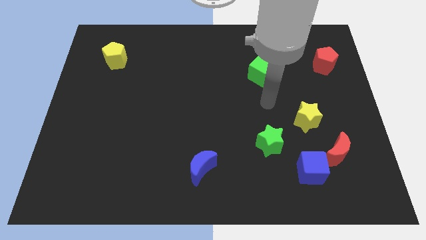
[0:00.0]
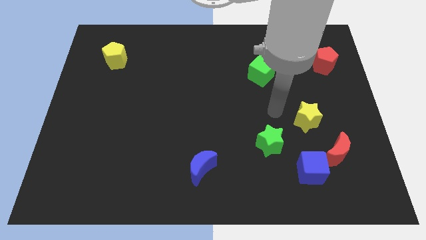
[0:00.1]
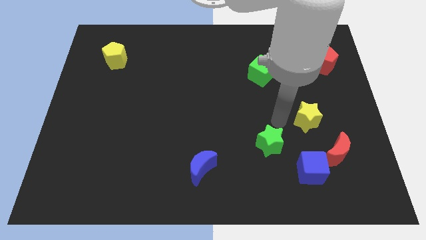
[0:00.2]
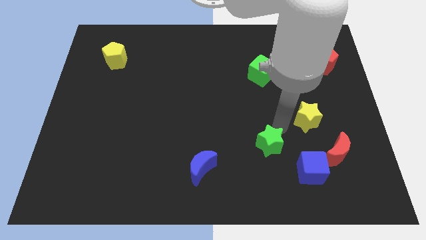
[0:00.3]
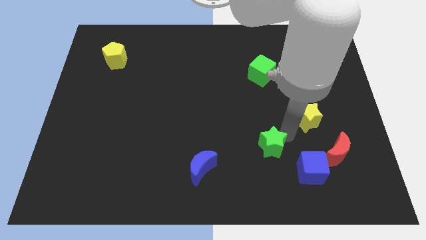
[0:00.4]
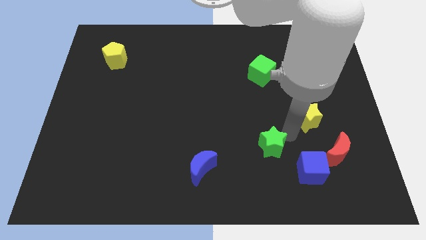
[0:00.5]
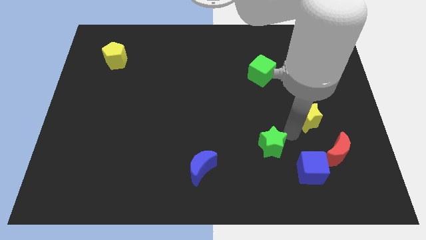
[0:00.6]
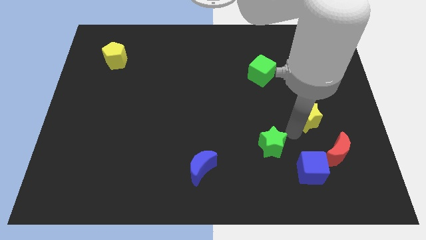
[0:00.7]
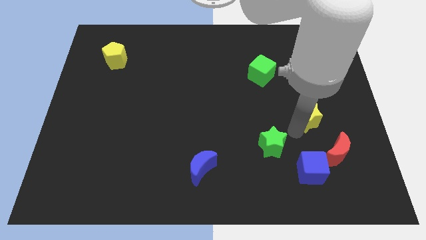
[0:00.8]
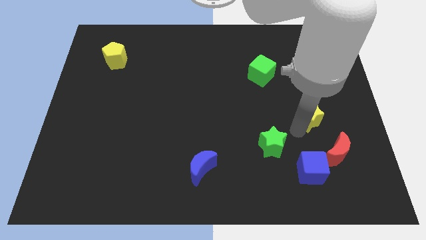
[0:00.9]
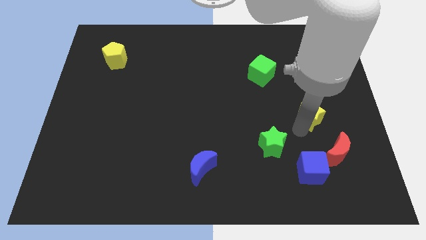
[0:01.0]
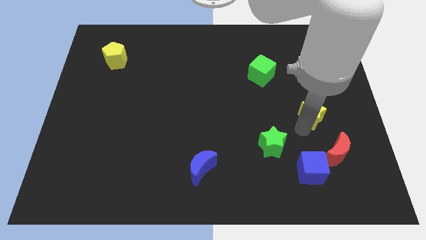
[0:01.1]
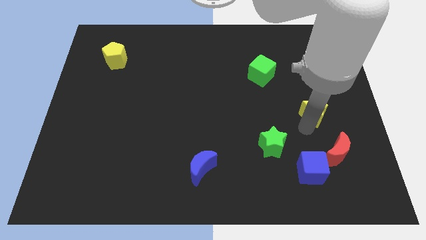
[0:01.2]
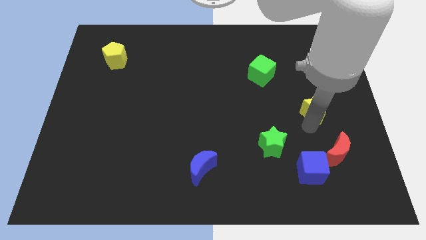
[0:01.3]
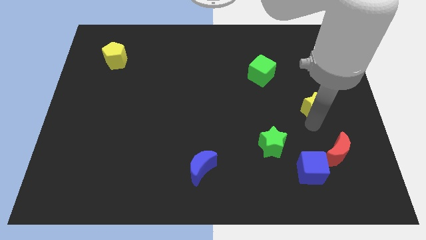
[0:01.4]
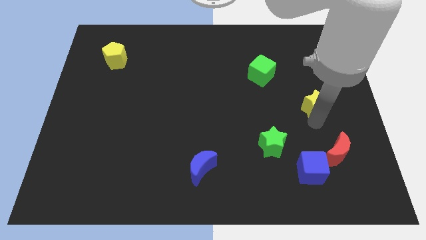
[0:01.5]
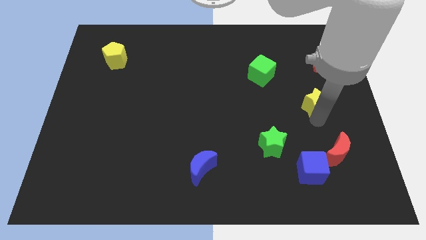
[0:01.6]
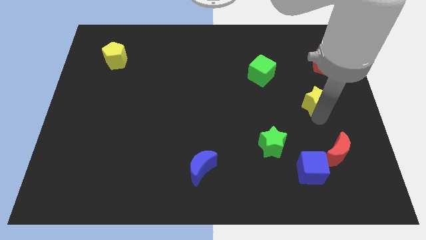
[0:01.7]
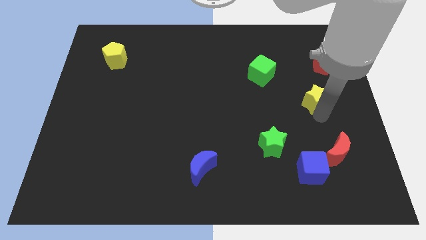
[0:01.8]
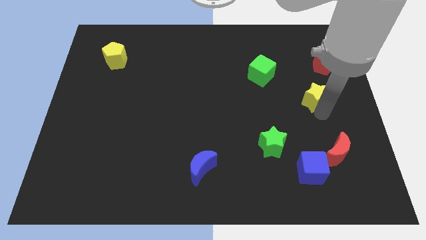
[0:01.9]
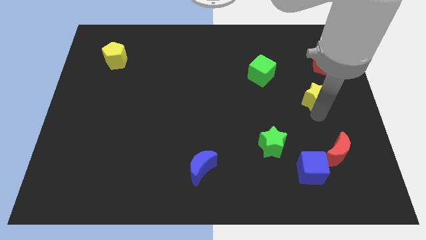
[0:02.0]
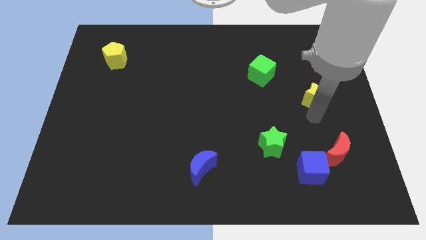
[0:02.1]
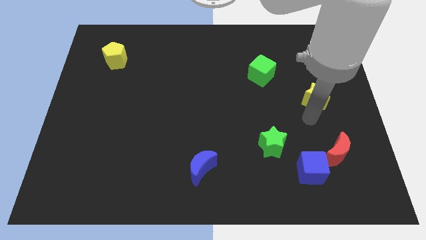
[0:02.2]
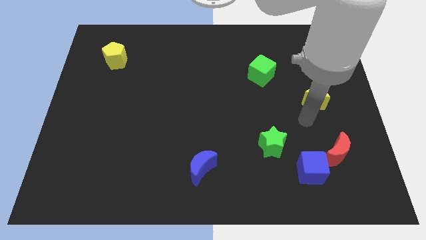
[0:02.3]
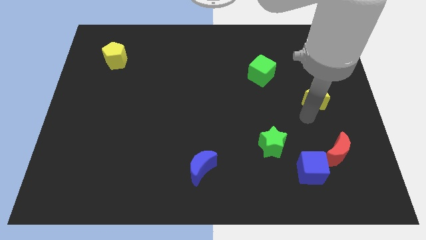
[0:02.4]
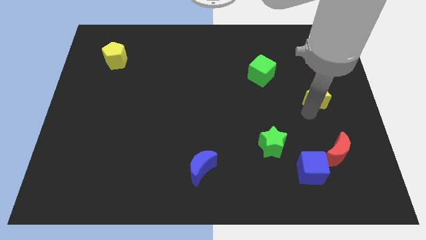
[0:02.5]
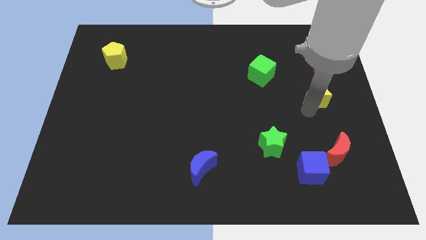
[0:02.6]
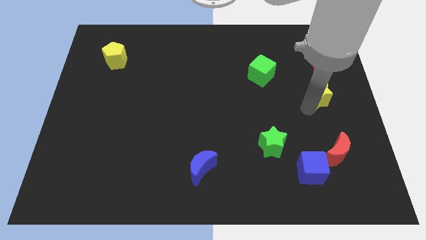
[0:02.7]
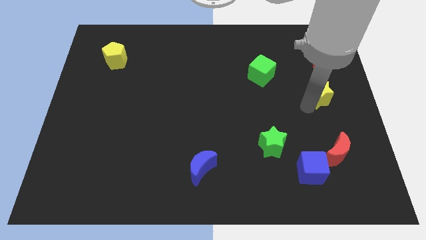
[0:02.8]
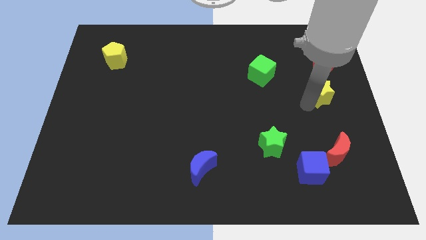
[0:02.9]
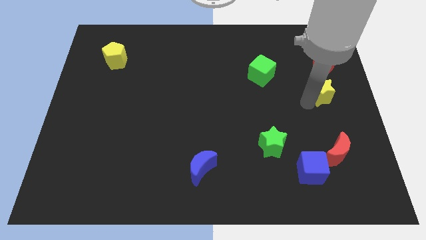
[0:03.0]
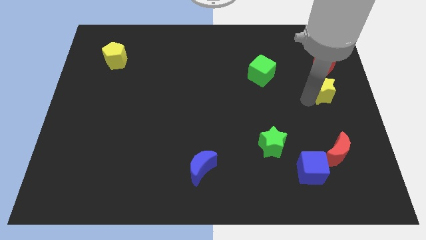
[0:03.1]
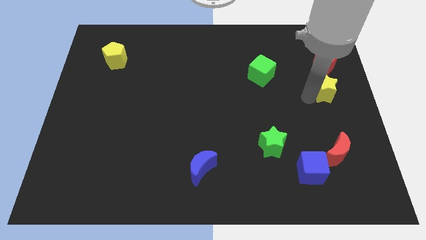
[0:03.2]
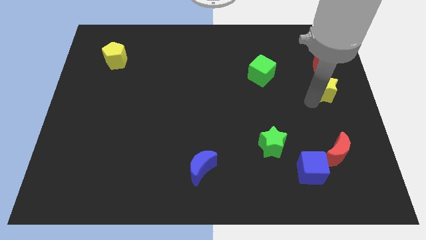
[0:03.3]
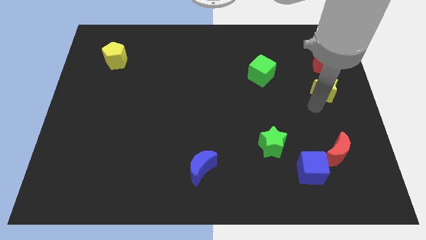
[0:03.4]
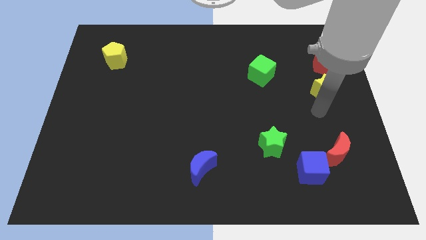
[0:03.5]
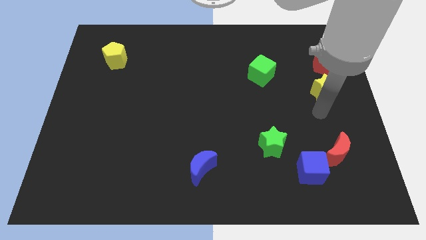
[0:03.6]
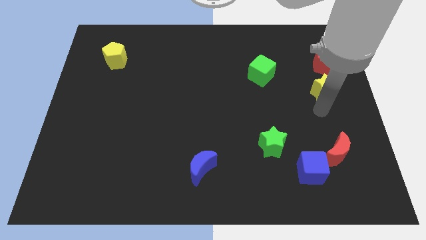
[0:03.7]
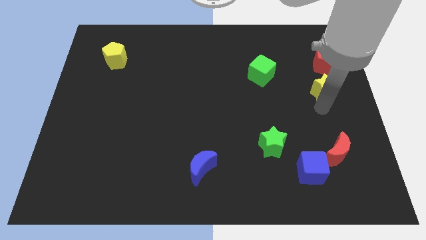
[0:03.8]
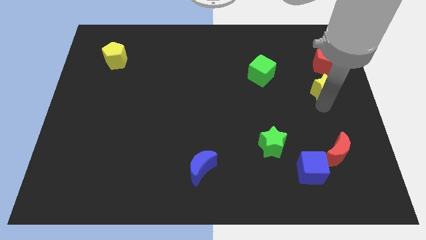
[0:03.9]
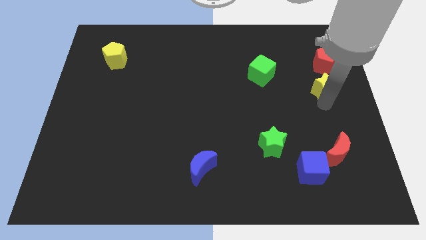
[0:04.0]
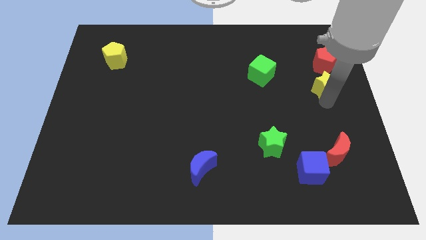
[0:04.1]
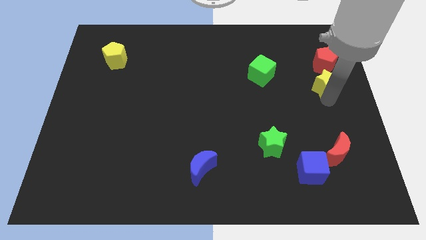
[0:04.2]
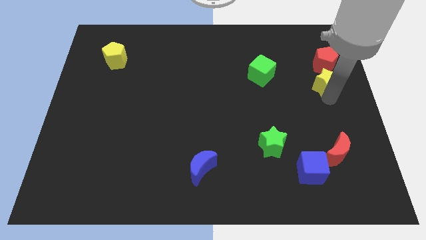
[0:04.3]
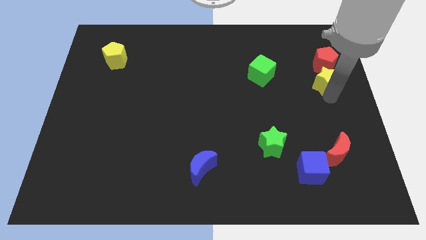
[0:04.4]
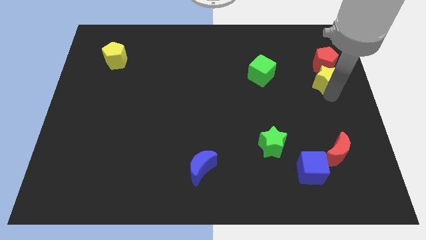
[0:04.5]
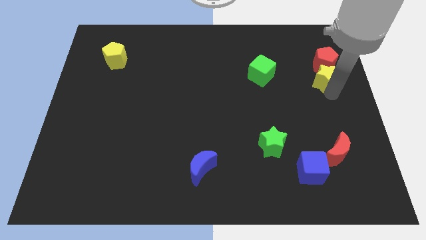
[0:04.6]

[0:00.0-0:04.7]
slide the yellow star towards the red pentagon

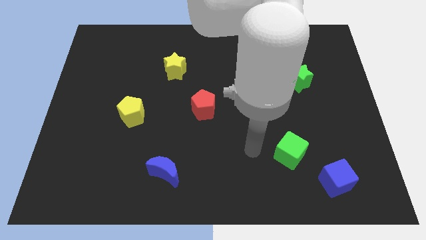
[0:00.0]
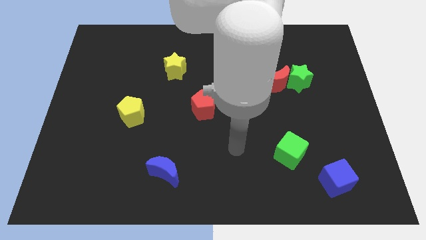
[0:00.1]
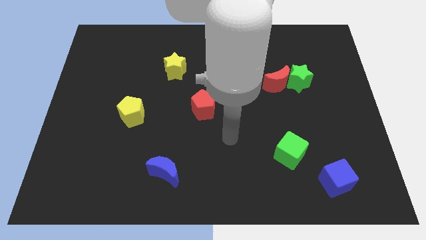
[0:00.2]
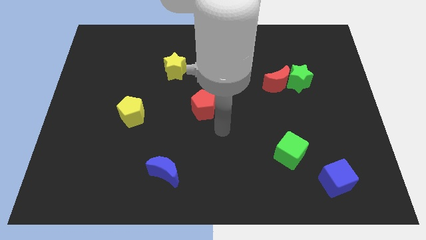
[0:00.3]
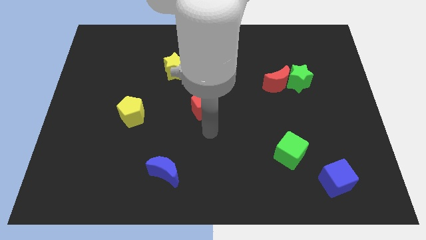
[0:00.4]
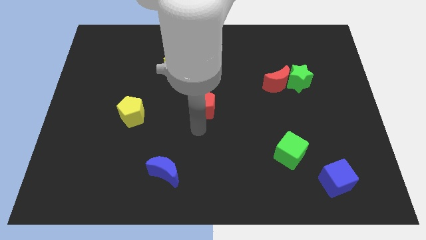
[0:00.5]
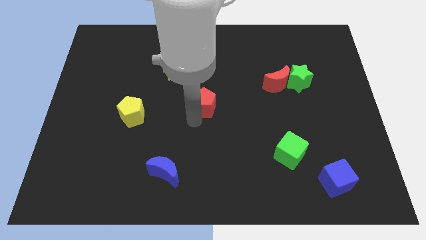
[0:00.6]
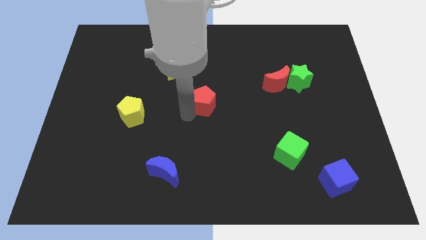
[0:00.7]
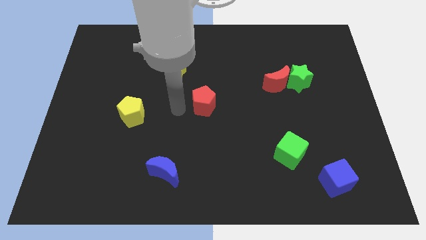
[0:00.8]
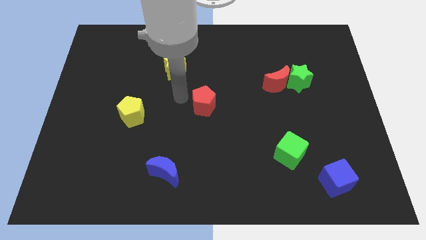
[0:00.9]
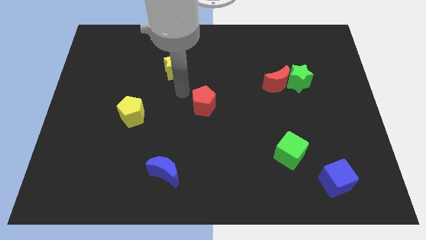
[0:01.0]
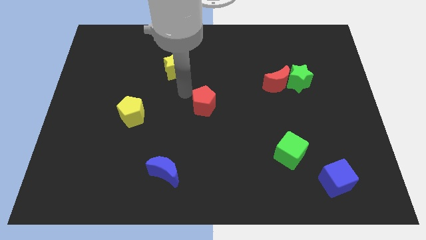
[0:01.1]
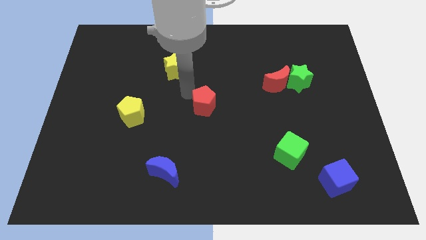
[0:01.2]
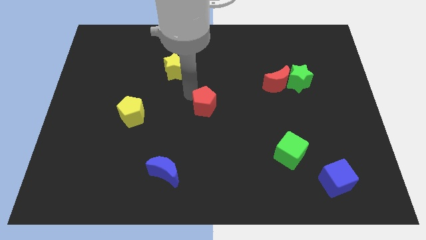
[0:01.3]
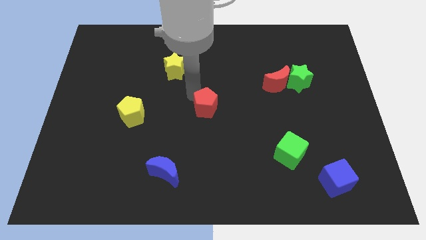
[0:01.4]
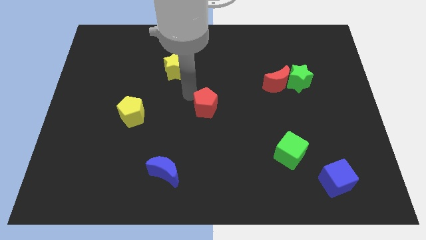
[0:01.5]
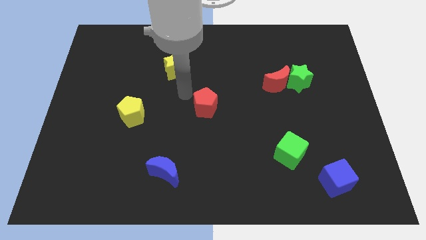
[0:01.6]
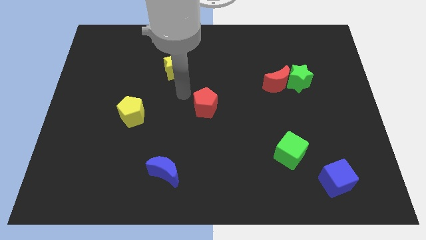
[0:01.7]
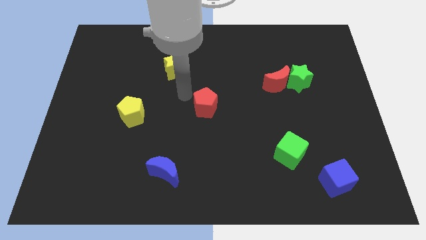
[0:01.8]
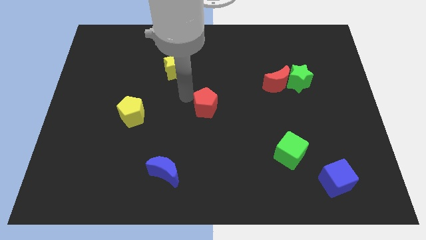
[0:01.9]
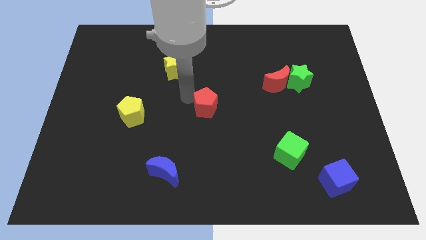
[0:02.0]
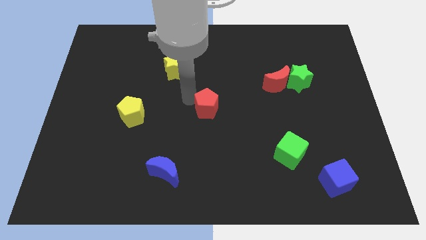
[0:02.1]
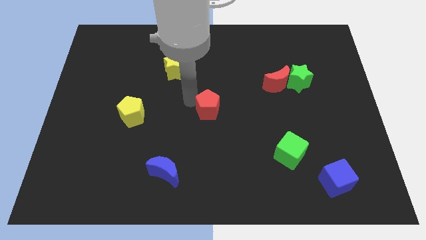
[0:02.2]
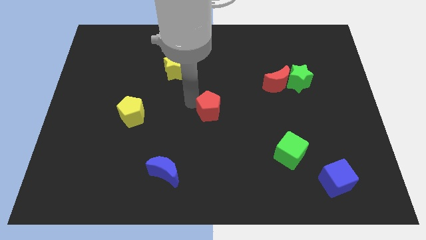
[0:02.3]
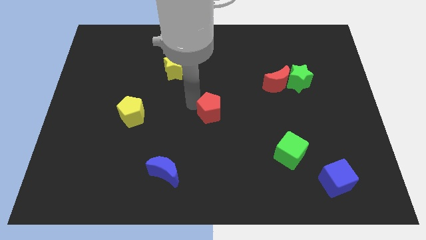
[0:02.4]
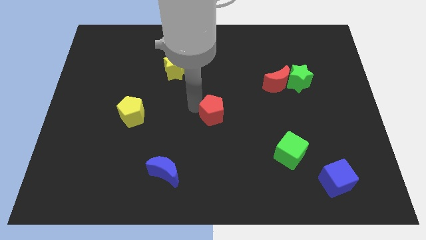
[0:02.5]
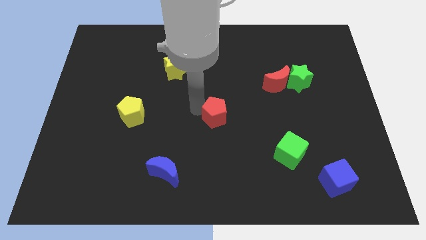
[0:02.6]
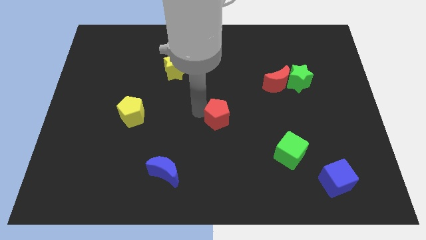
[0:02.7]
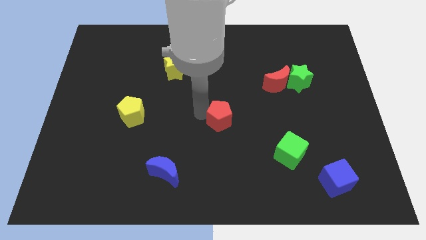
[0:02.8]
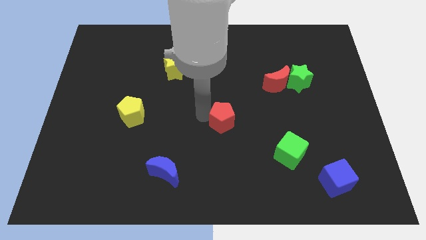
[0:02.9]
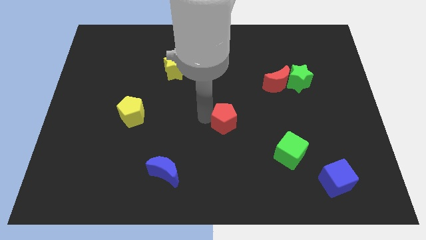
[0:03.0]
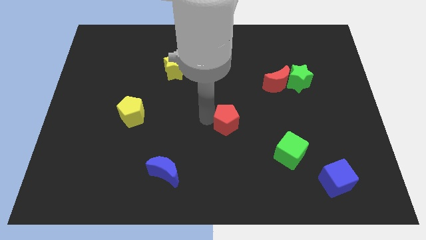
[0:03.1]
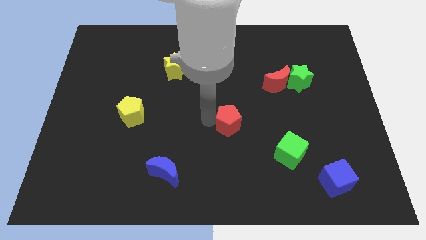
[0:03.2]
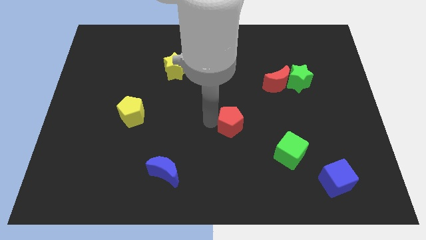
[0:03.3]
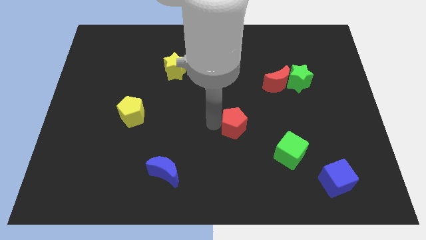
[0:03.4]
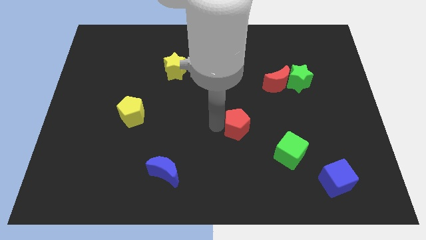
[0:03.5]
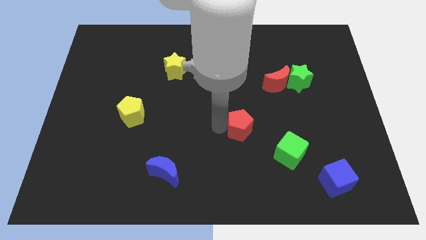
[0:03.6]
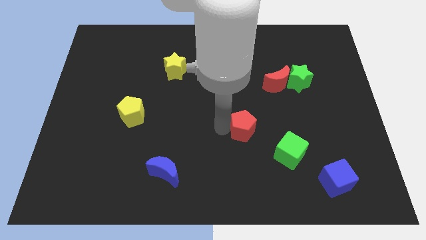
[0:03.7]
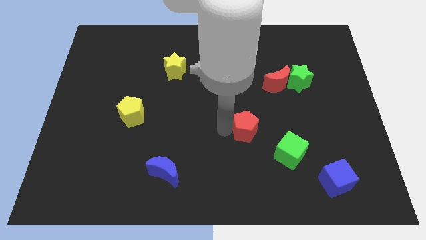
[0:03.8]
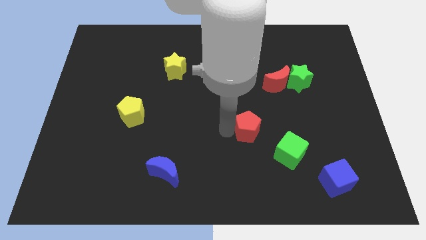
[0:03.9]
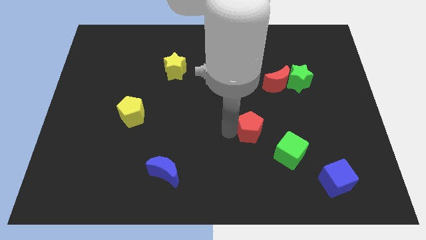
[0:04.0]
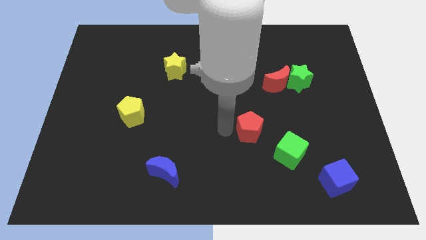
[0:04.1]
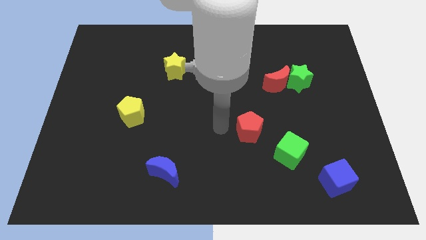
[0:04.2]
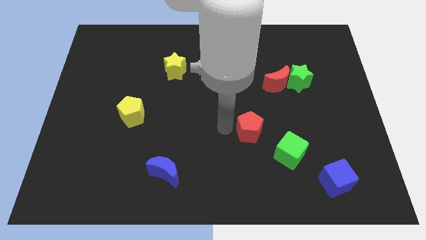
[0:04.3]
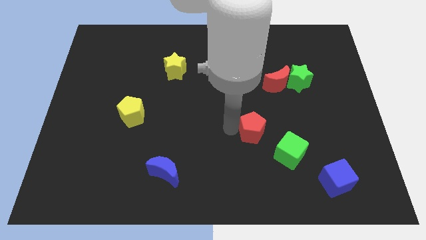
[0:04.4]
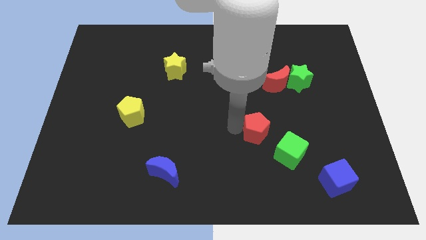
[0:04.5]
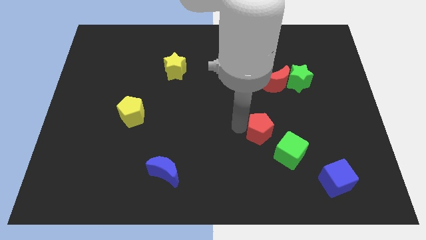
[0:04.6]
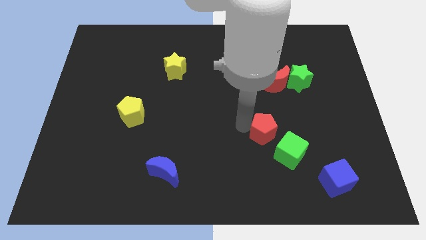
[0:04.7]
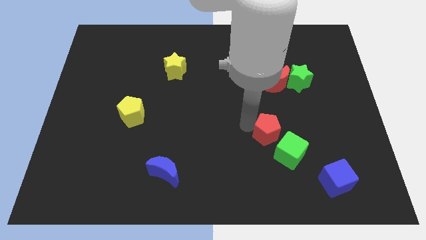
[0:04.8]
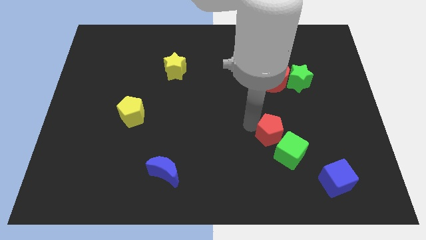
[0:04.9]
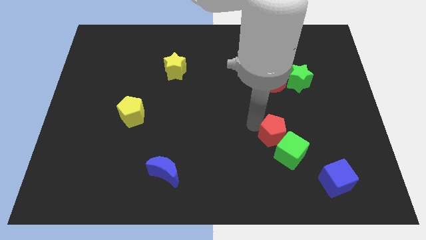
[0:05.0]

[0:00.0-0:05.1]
push the red pentagon close to the green cube
